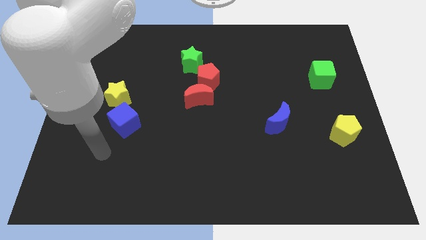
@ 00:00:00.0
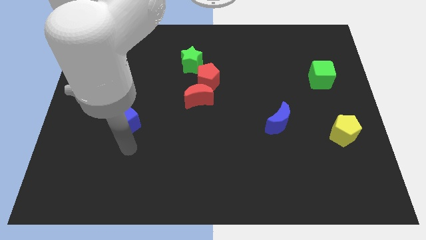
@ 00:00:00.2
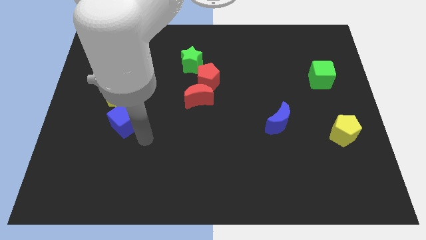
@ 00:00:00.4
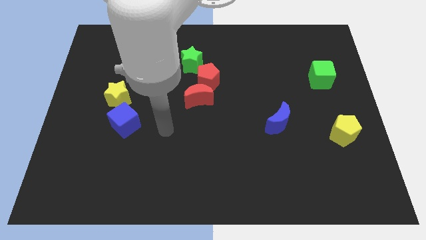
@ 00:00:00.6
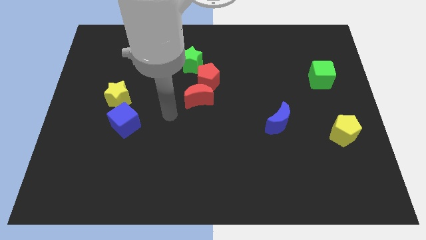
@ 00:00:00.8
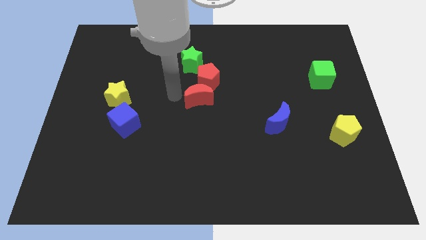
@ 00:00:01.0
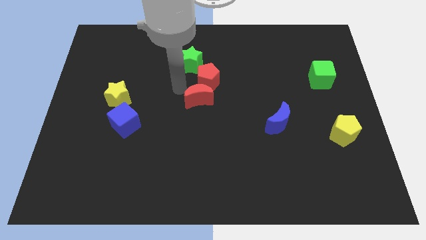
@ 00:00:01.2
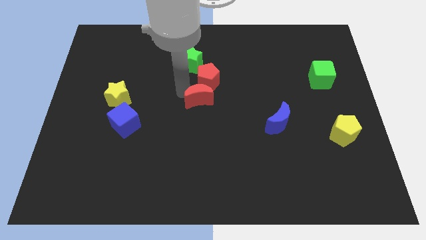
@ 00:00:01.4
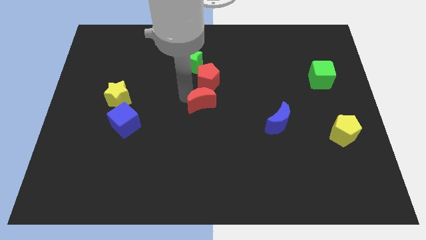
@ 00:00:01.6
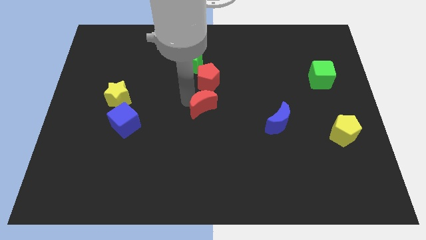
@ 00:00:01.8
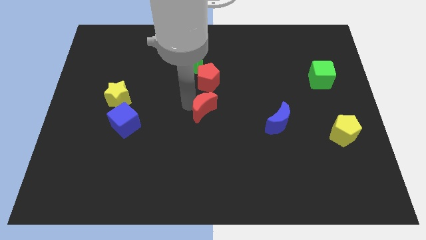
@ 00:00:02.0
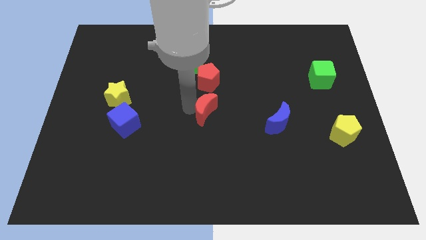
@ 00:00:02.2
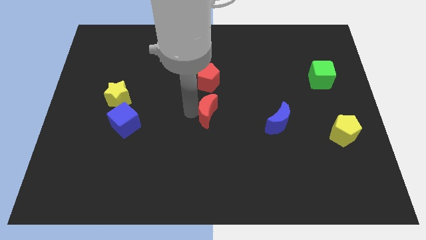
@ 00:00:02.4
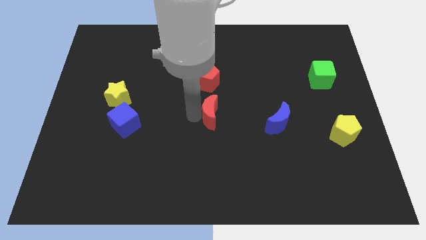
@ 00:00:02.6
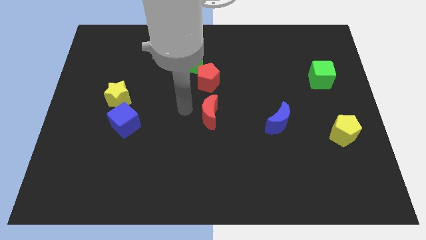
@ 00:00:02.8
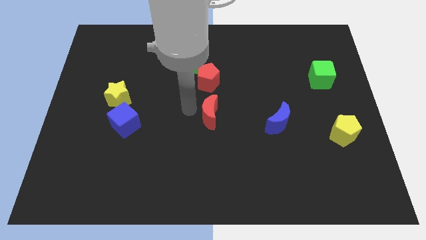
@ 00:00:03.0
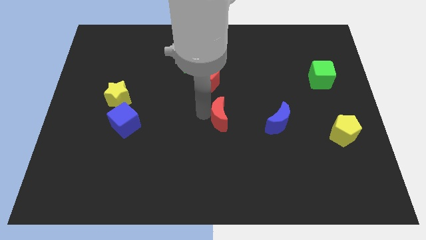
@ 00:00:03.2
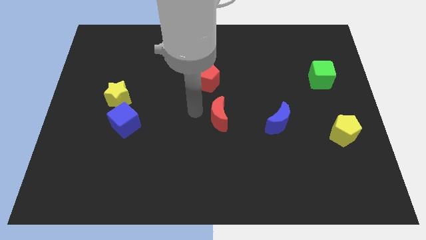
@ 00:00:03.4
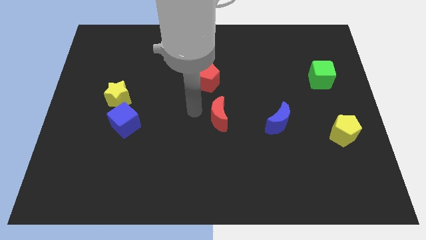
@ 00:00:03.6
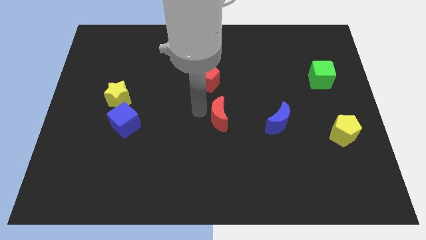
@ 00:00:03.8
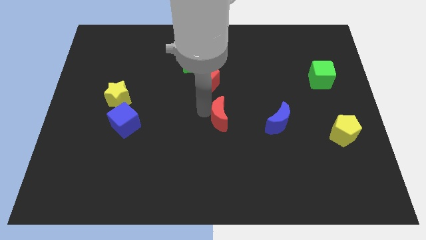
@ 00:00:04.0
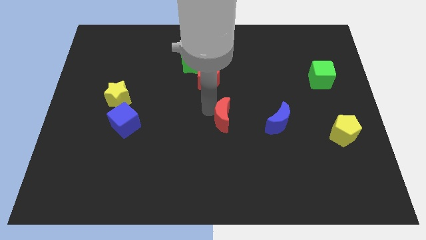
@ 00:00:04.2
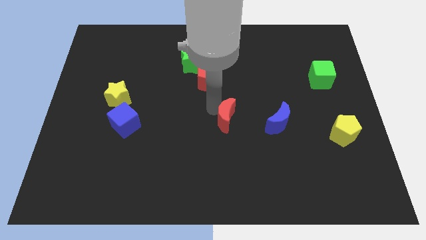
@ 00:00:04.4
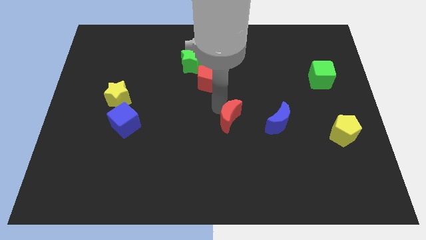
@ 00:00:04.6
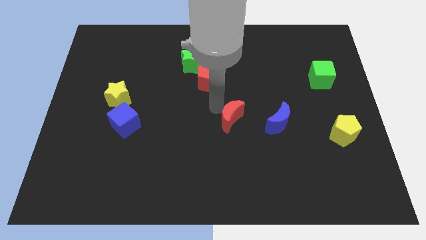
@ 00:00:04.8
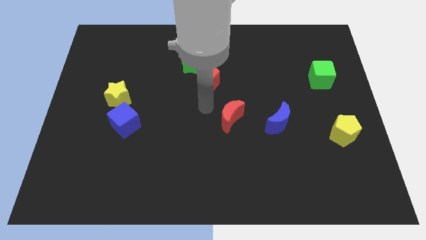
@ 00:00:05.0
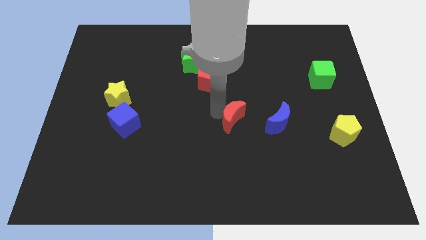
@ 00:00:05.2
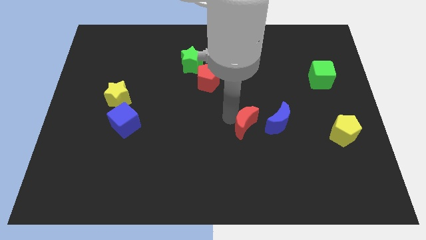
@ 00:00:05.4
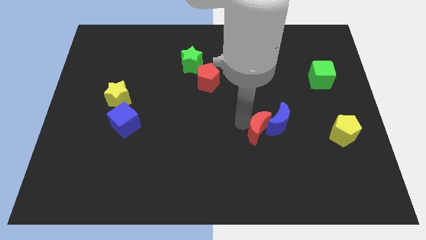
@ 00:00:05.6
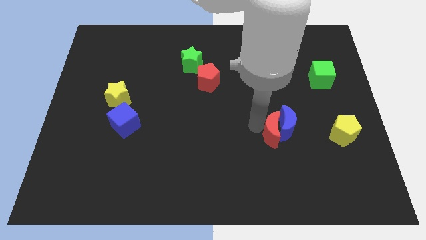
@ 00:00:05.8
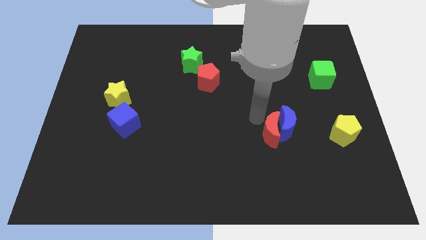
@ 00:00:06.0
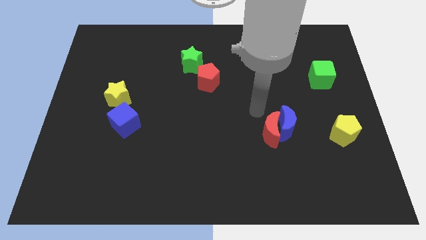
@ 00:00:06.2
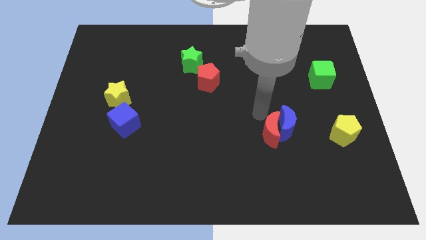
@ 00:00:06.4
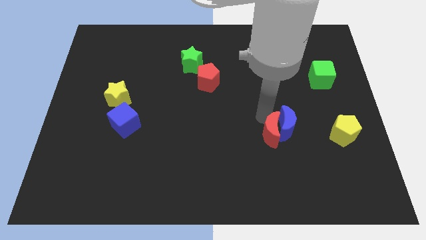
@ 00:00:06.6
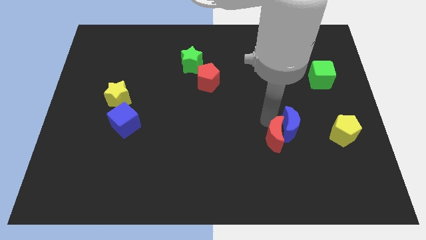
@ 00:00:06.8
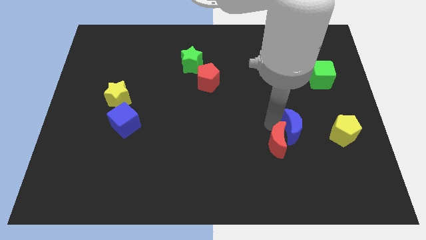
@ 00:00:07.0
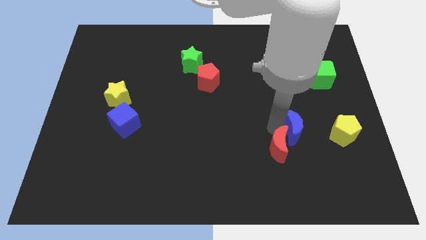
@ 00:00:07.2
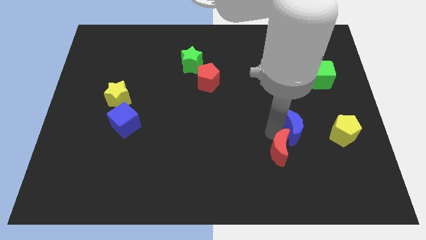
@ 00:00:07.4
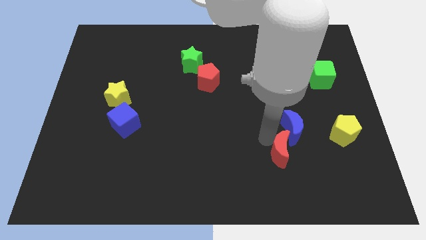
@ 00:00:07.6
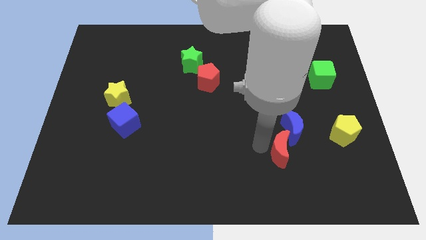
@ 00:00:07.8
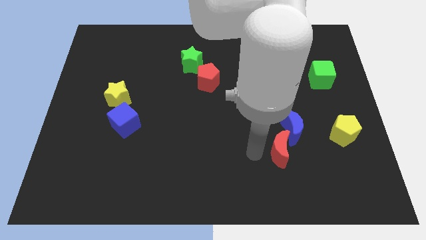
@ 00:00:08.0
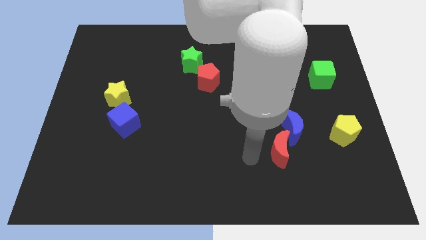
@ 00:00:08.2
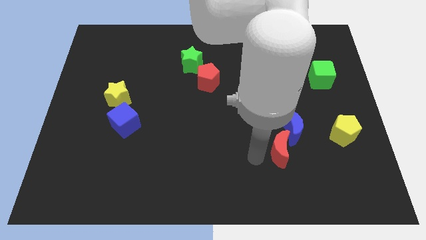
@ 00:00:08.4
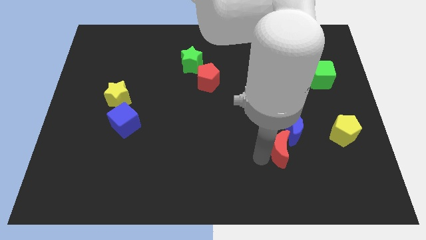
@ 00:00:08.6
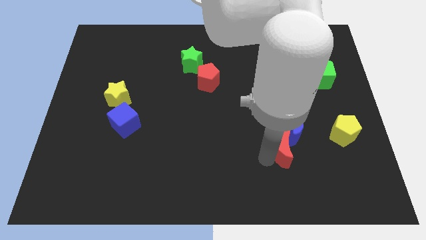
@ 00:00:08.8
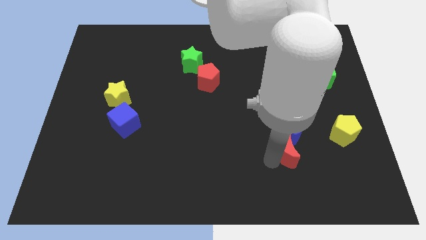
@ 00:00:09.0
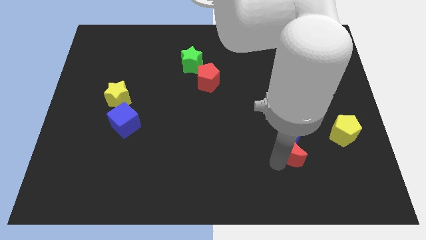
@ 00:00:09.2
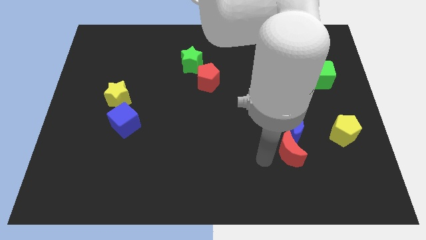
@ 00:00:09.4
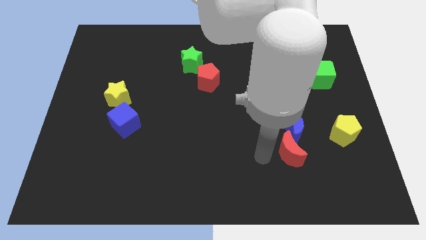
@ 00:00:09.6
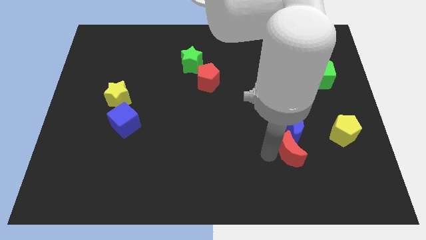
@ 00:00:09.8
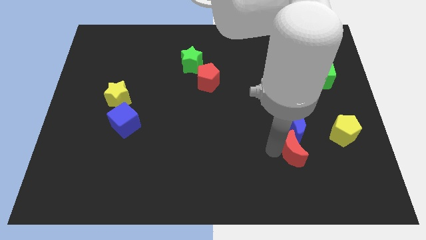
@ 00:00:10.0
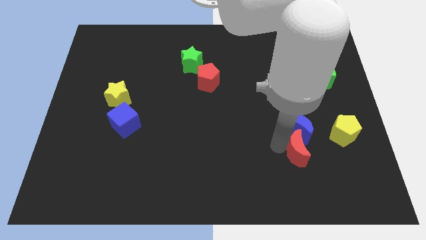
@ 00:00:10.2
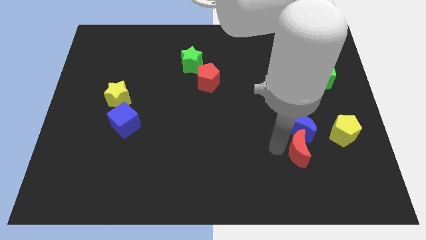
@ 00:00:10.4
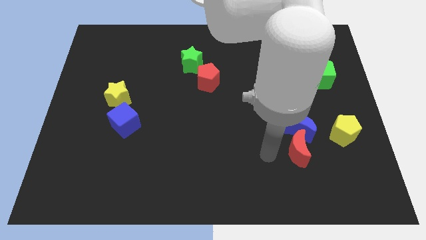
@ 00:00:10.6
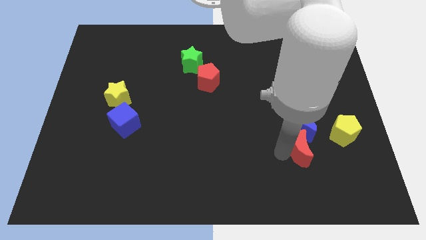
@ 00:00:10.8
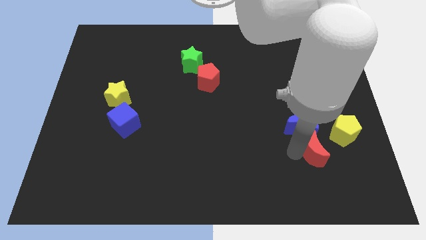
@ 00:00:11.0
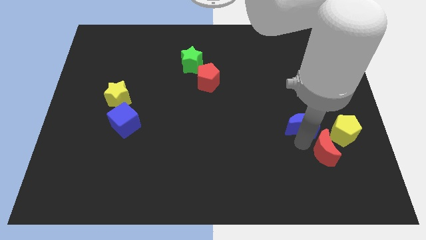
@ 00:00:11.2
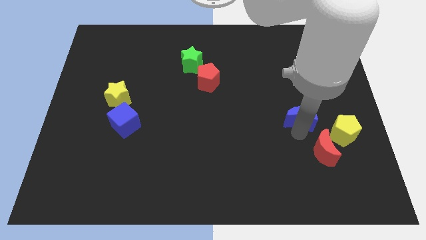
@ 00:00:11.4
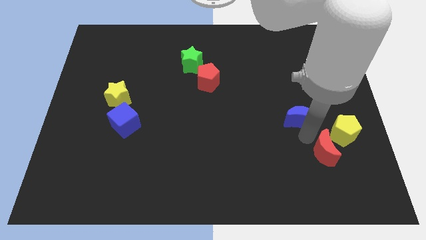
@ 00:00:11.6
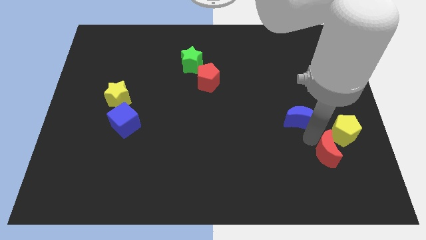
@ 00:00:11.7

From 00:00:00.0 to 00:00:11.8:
push the red moon below the yellow pentagon
